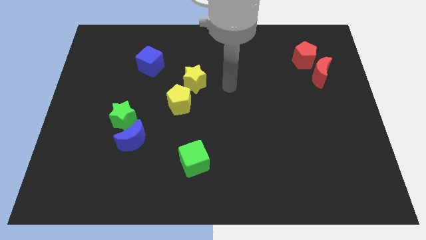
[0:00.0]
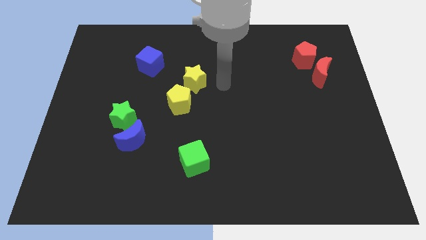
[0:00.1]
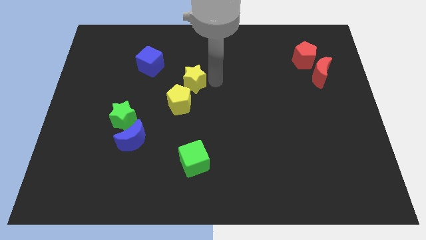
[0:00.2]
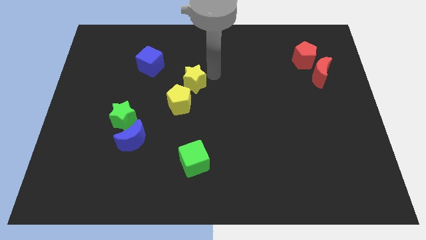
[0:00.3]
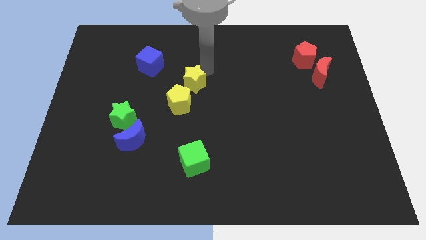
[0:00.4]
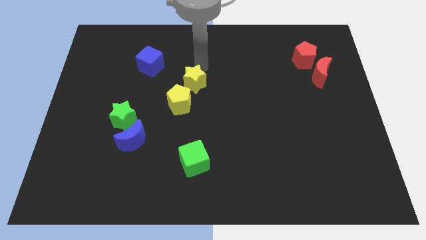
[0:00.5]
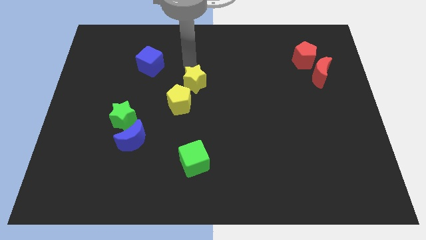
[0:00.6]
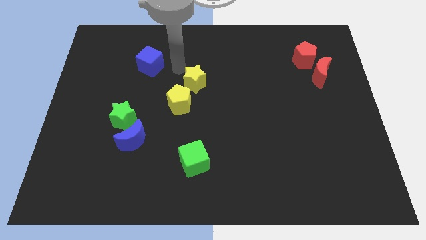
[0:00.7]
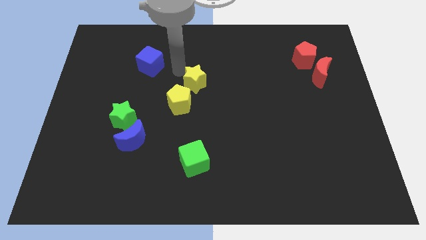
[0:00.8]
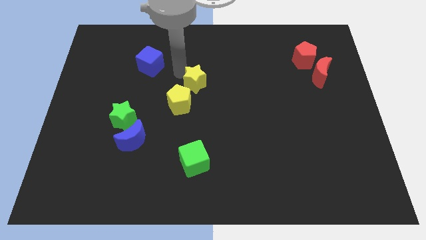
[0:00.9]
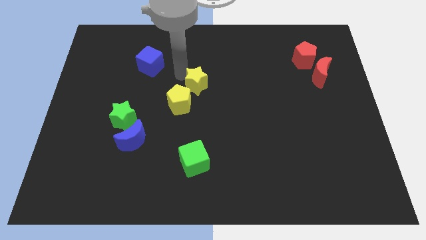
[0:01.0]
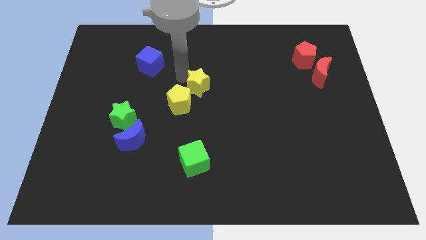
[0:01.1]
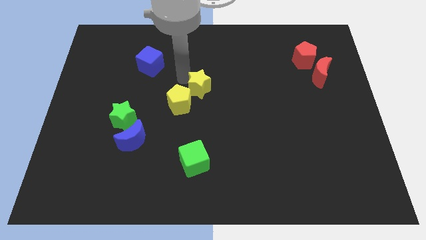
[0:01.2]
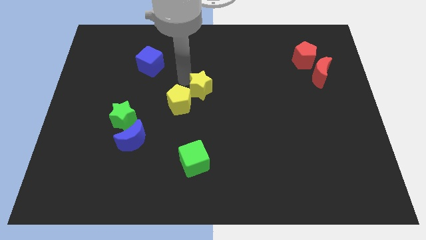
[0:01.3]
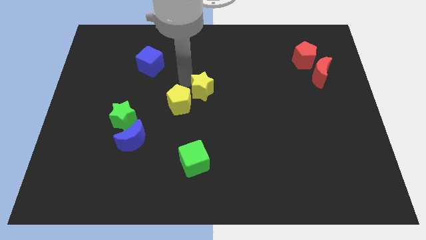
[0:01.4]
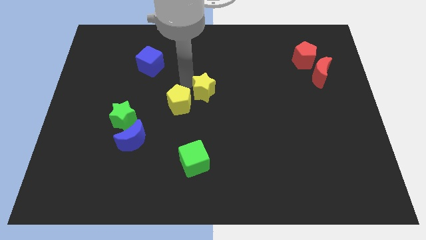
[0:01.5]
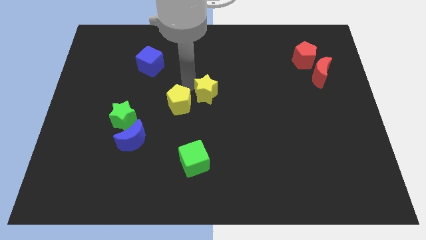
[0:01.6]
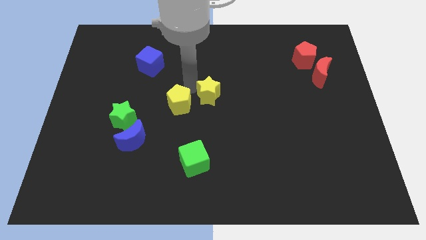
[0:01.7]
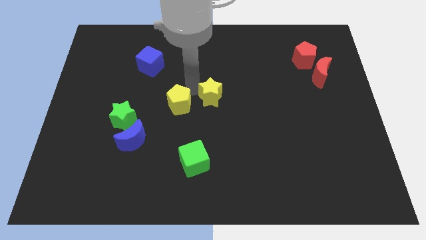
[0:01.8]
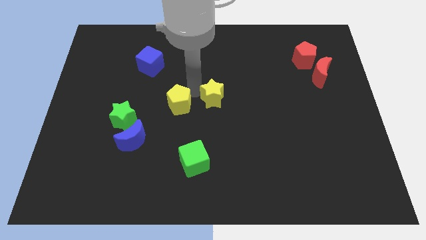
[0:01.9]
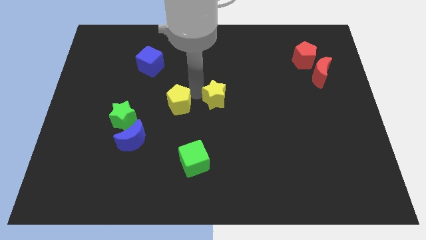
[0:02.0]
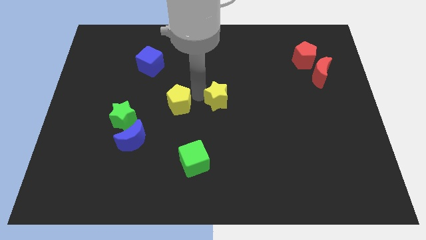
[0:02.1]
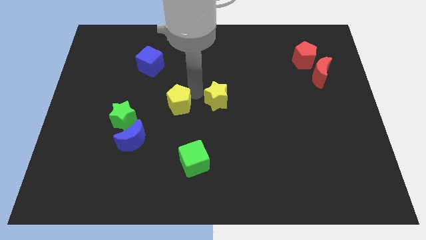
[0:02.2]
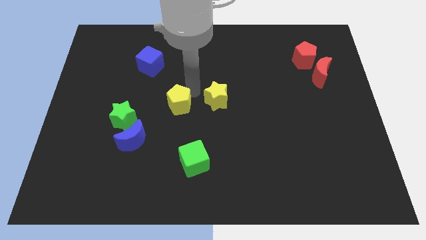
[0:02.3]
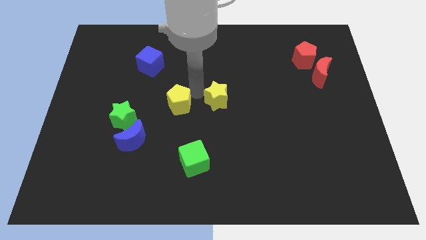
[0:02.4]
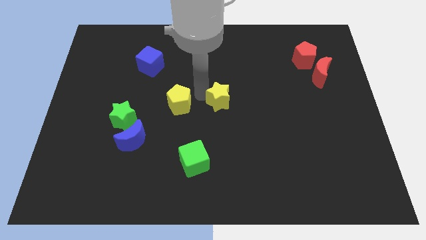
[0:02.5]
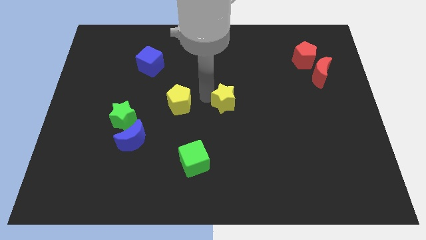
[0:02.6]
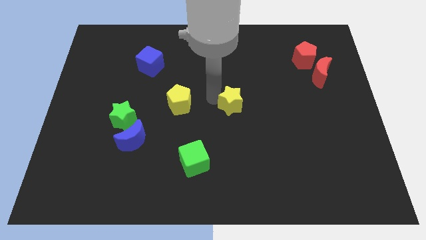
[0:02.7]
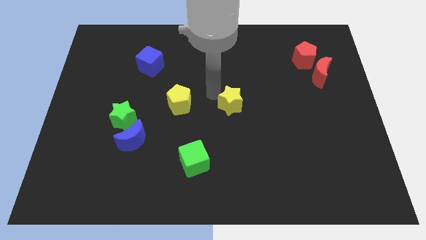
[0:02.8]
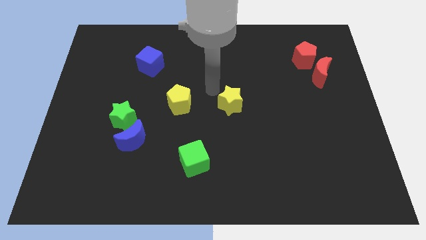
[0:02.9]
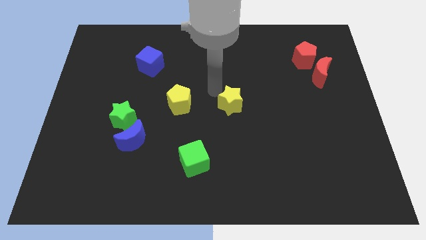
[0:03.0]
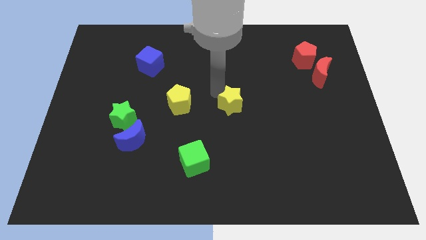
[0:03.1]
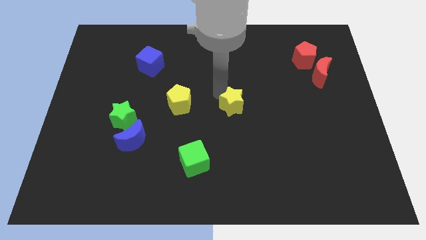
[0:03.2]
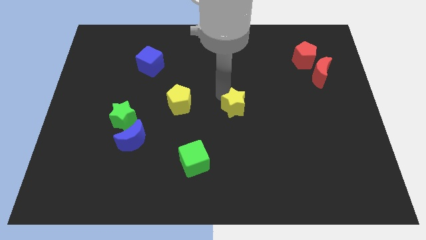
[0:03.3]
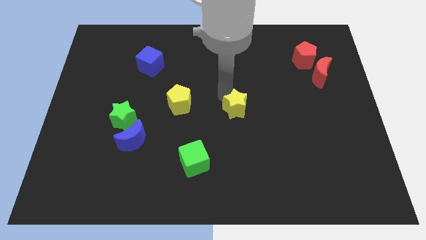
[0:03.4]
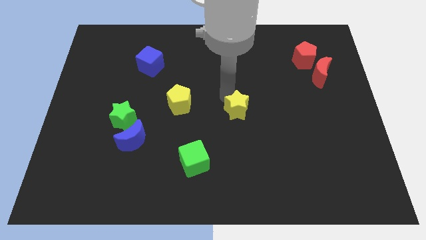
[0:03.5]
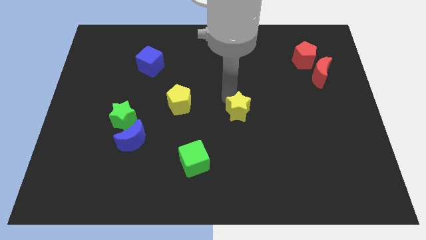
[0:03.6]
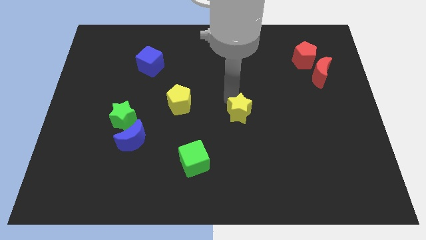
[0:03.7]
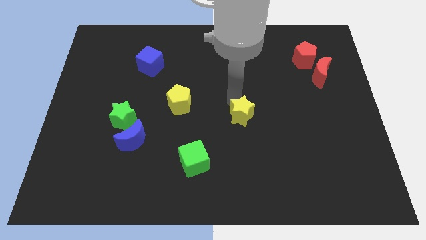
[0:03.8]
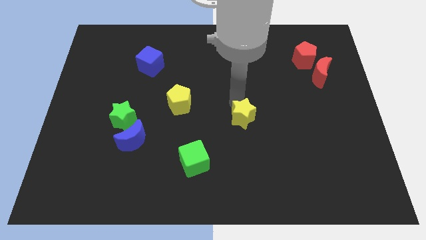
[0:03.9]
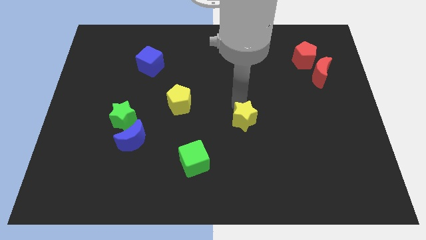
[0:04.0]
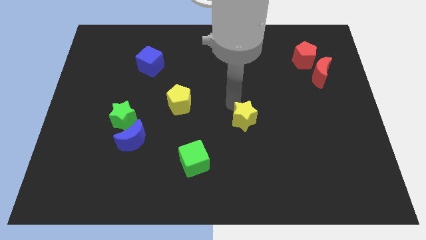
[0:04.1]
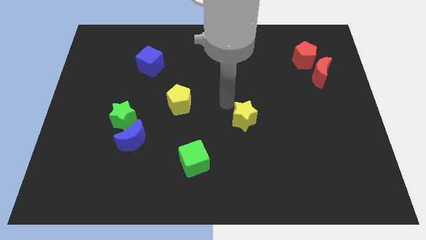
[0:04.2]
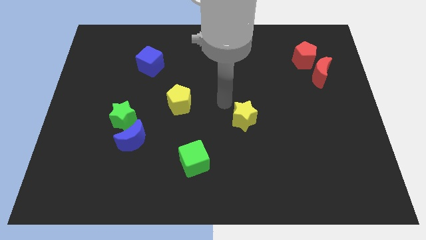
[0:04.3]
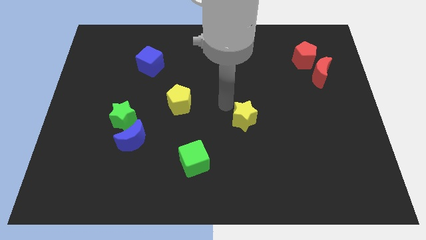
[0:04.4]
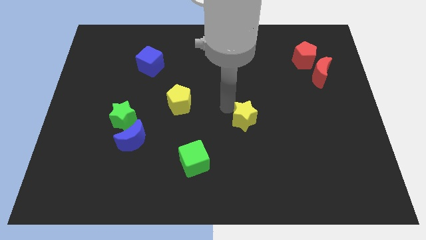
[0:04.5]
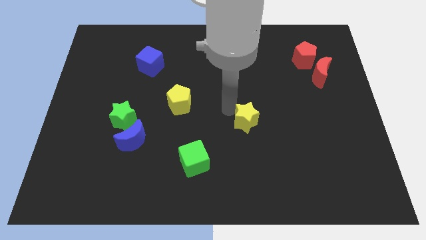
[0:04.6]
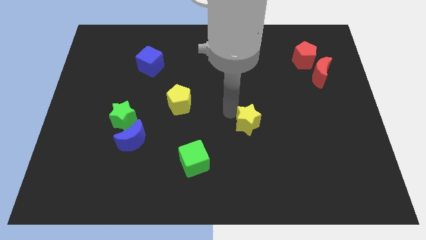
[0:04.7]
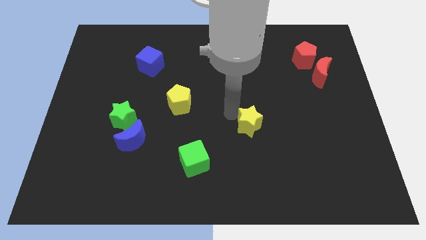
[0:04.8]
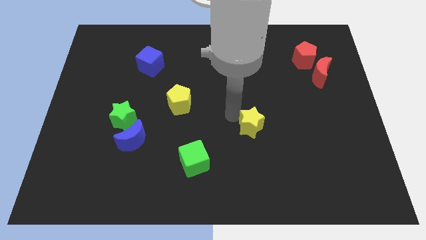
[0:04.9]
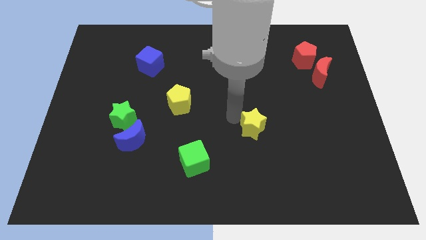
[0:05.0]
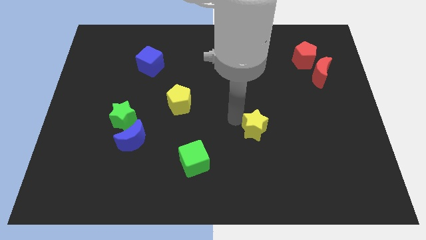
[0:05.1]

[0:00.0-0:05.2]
push the yellow star downwards and to the right diagonally

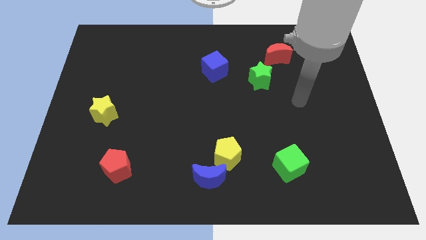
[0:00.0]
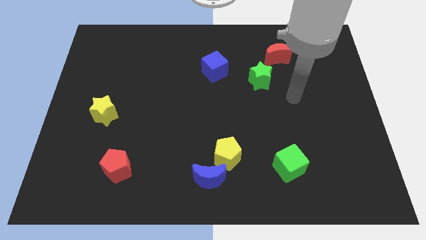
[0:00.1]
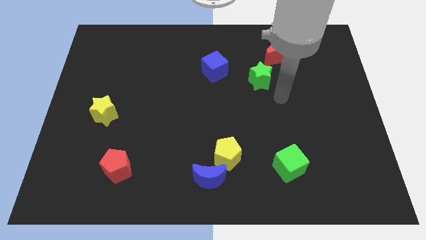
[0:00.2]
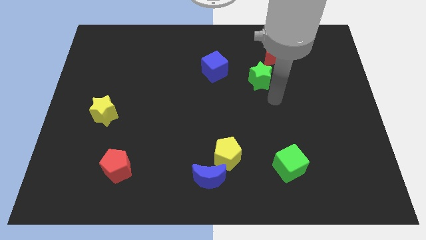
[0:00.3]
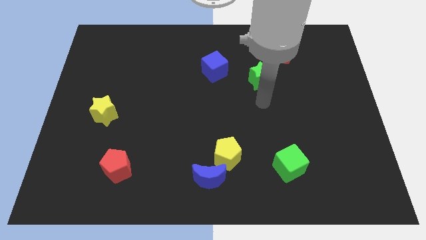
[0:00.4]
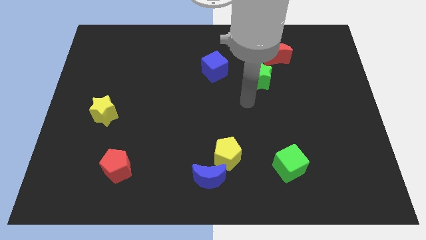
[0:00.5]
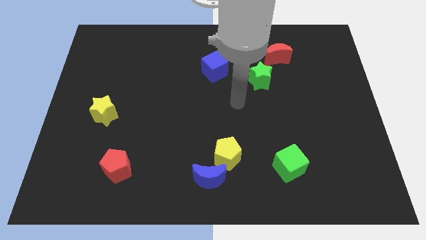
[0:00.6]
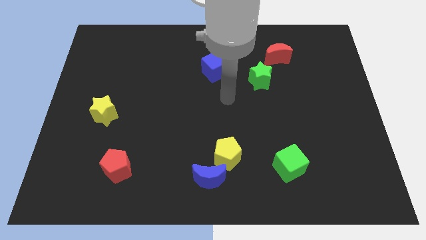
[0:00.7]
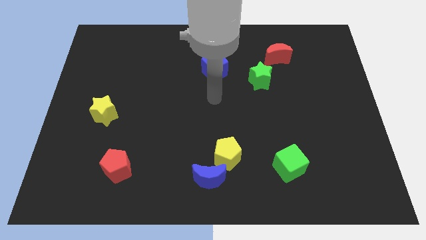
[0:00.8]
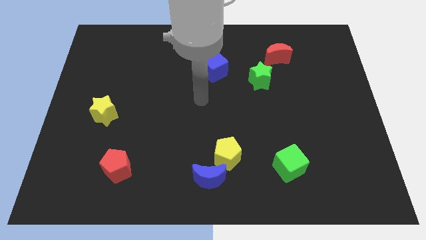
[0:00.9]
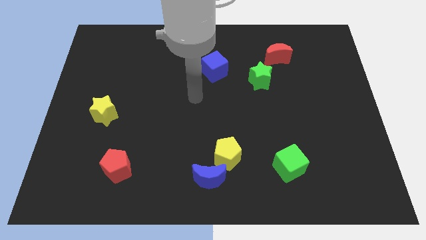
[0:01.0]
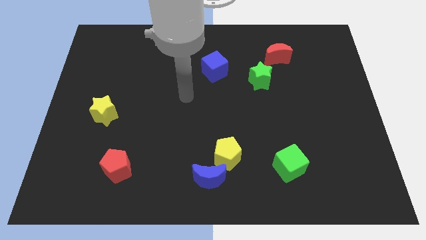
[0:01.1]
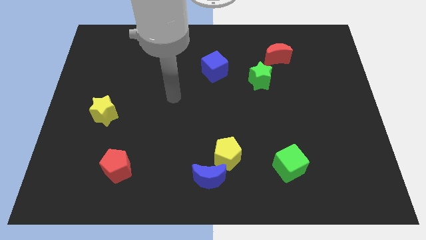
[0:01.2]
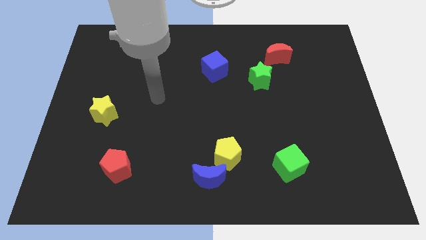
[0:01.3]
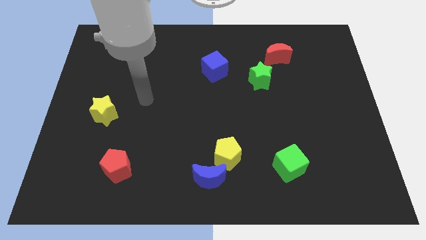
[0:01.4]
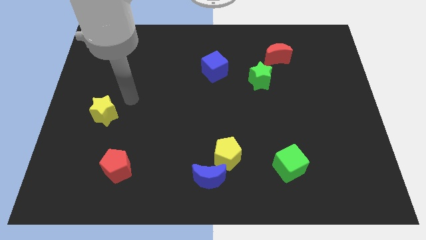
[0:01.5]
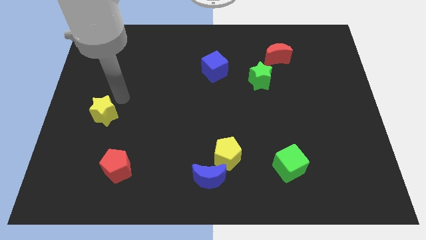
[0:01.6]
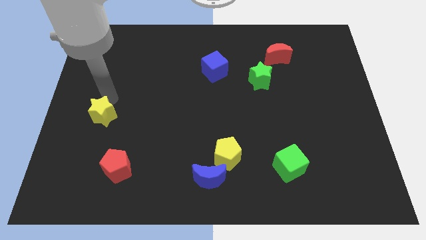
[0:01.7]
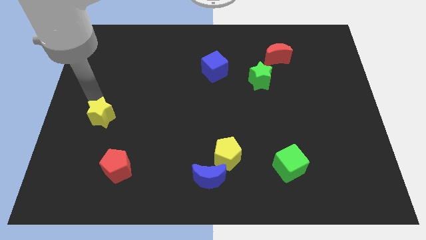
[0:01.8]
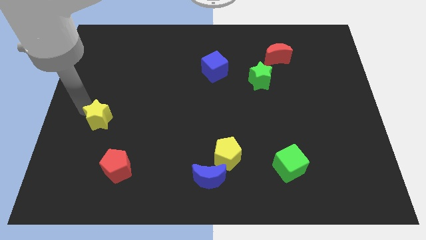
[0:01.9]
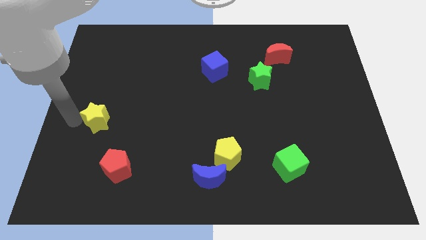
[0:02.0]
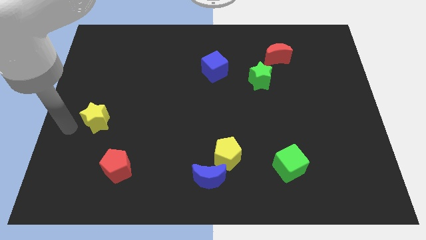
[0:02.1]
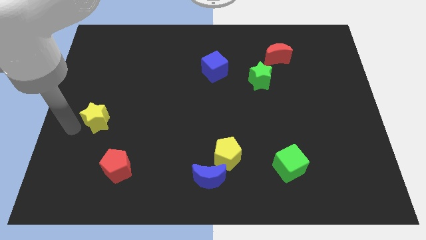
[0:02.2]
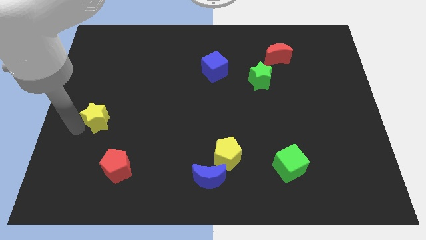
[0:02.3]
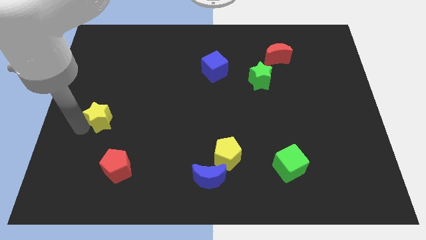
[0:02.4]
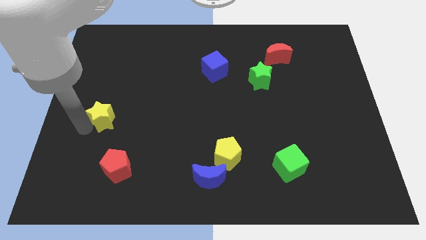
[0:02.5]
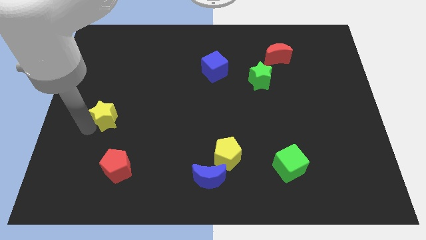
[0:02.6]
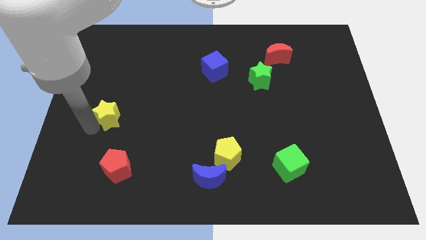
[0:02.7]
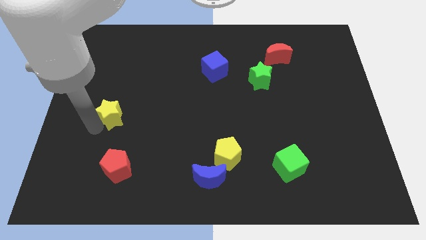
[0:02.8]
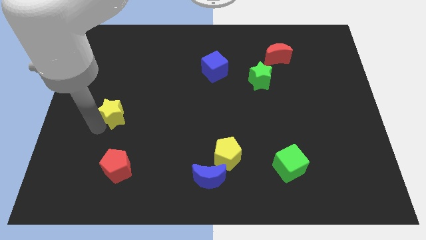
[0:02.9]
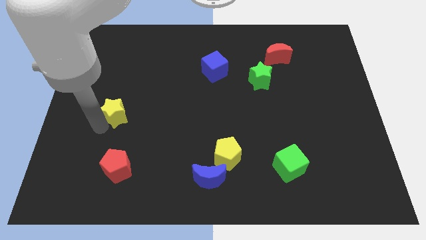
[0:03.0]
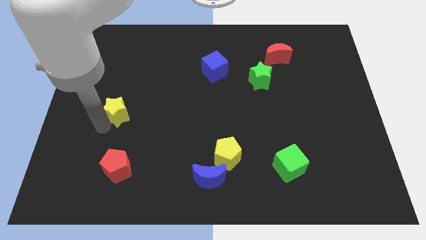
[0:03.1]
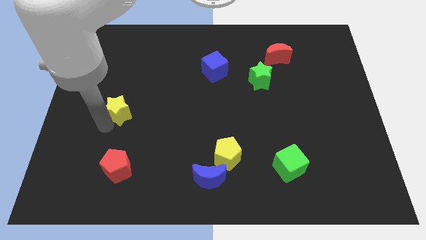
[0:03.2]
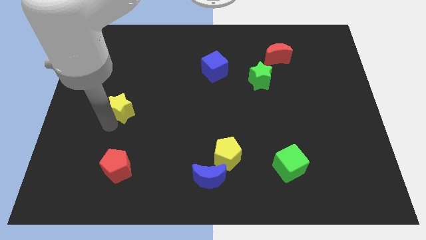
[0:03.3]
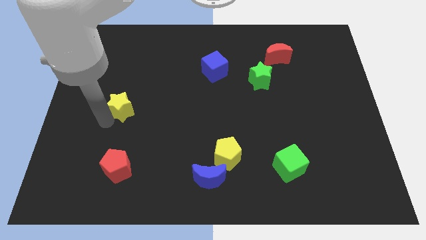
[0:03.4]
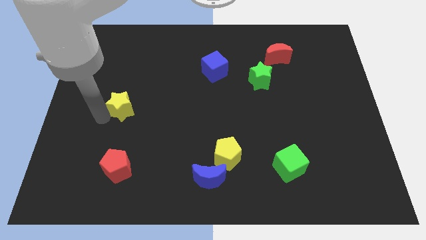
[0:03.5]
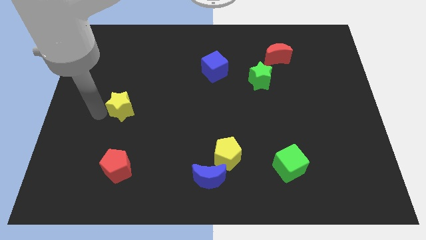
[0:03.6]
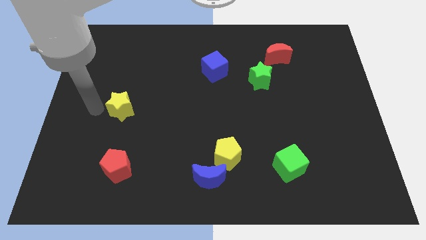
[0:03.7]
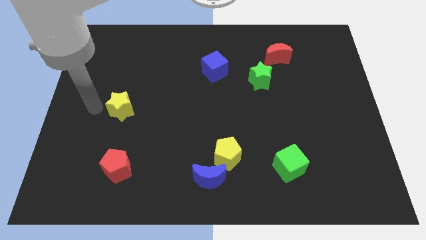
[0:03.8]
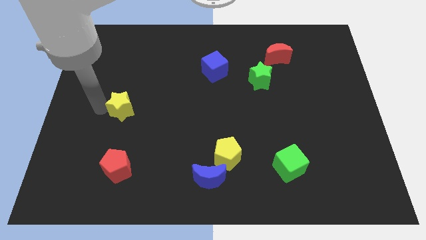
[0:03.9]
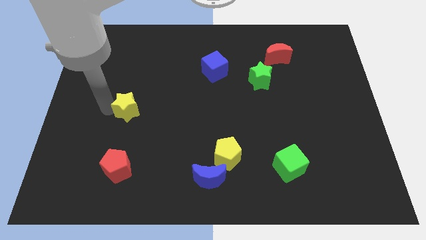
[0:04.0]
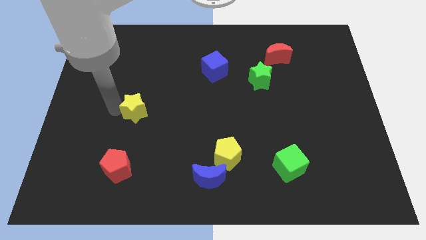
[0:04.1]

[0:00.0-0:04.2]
slightly push the yellow star right
